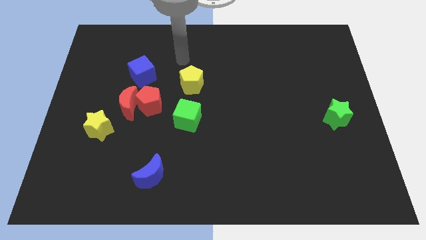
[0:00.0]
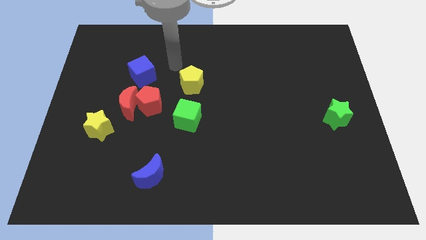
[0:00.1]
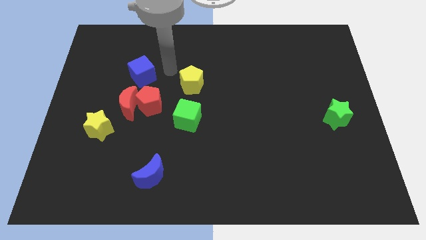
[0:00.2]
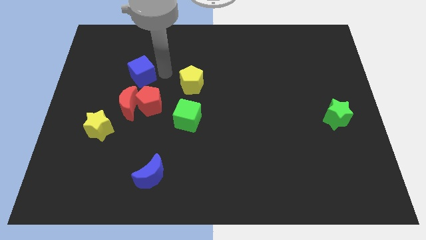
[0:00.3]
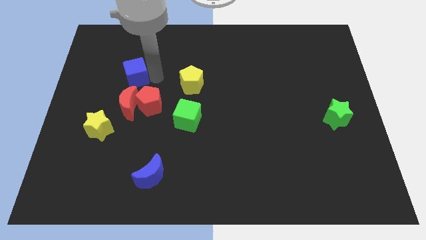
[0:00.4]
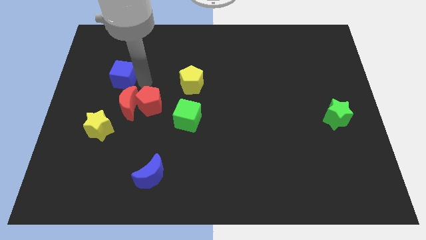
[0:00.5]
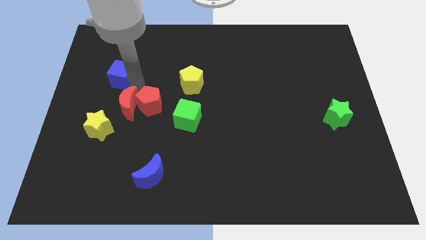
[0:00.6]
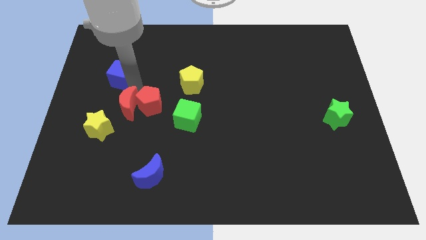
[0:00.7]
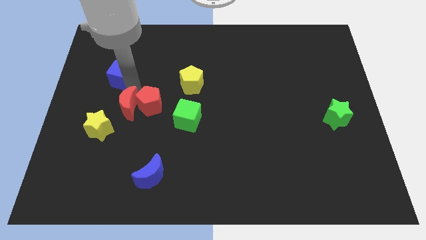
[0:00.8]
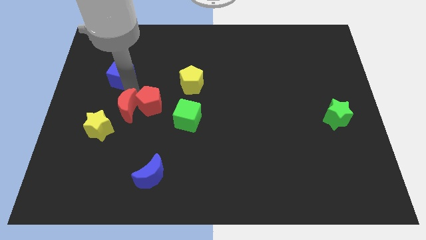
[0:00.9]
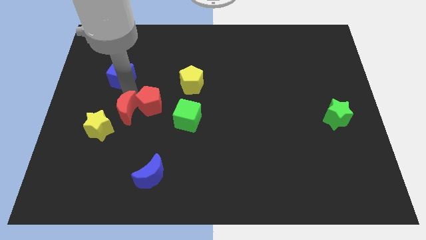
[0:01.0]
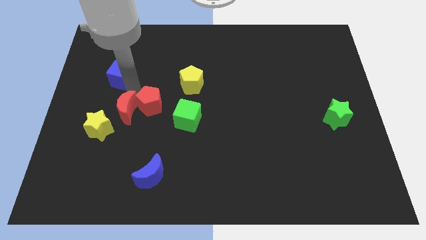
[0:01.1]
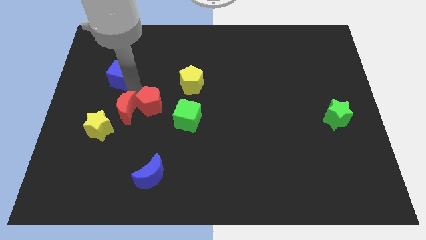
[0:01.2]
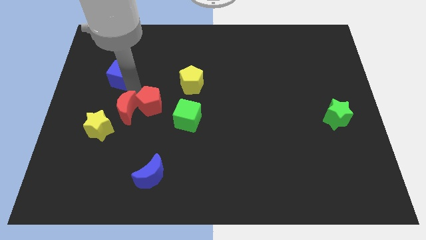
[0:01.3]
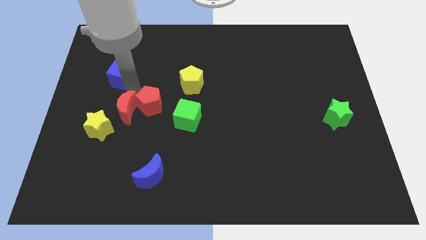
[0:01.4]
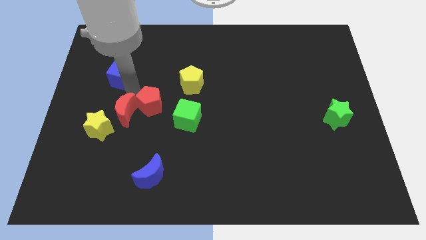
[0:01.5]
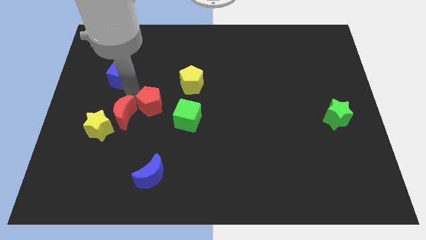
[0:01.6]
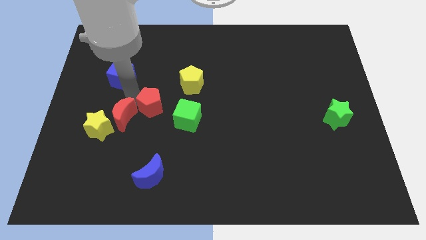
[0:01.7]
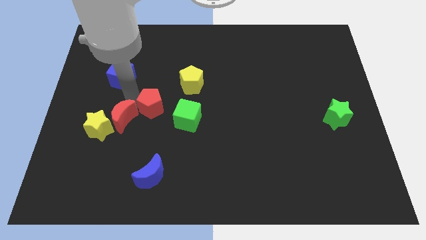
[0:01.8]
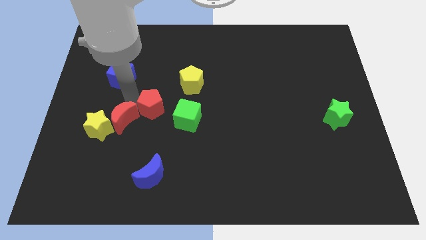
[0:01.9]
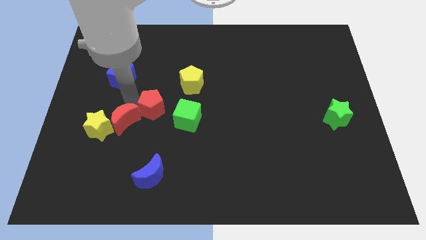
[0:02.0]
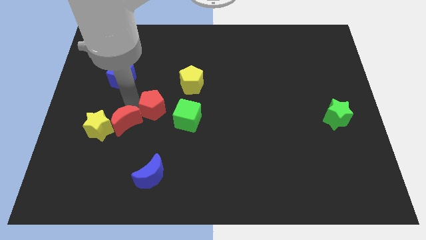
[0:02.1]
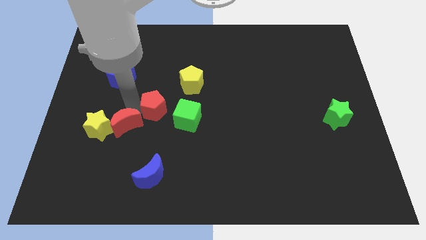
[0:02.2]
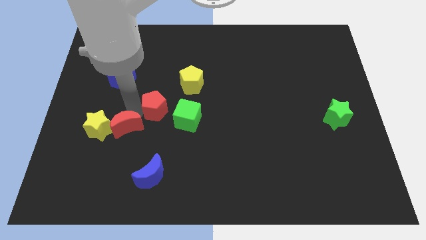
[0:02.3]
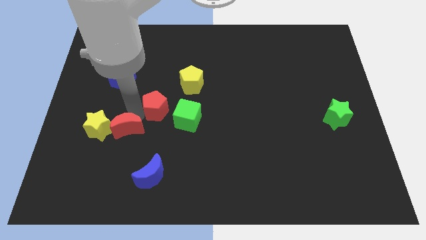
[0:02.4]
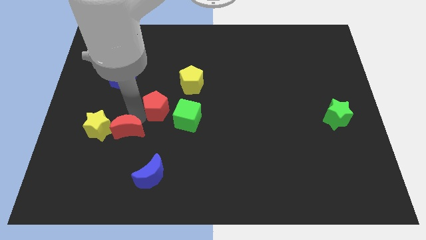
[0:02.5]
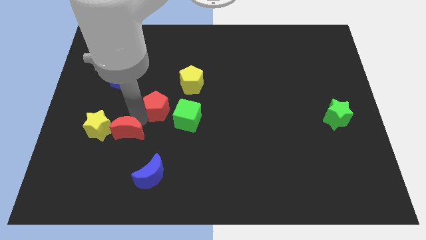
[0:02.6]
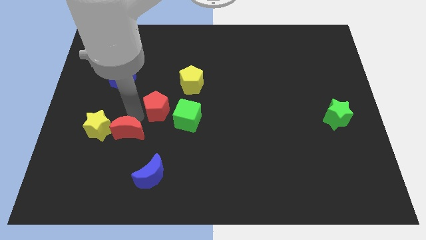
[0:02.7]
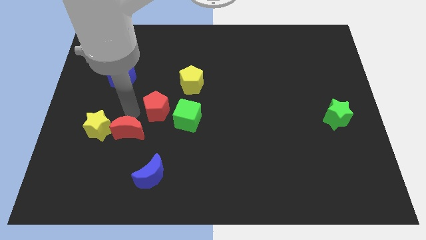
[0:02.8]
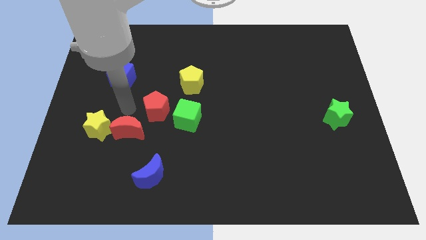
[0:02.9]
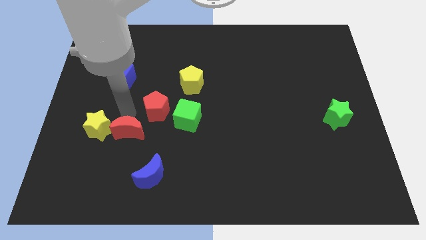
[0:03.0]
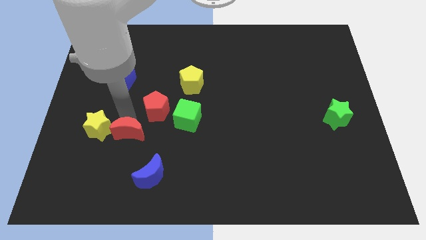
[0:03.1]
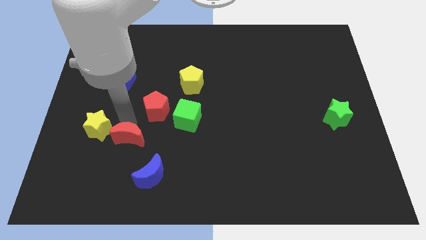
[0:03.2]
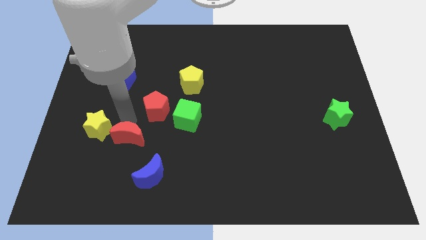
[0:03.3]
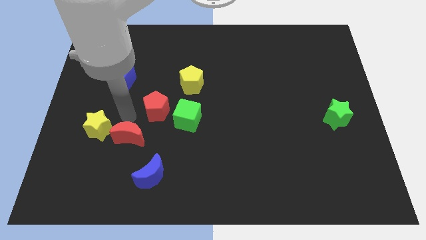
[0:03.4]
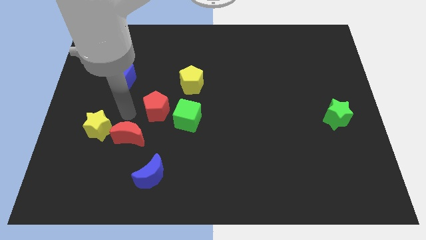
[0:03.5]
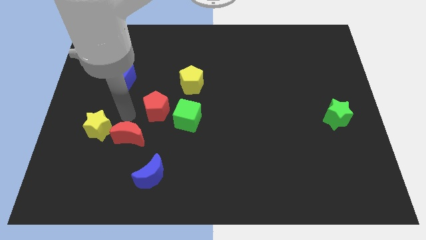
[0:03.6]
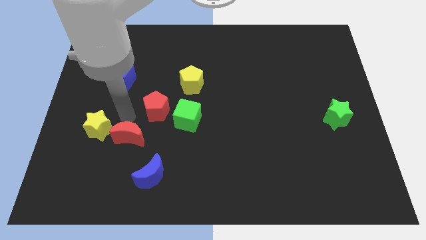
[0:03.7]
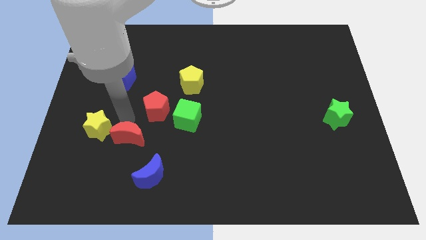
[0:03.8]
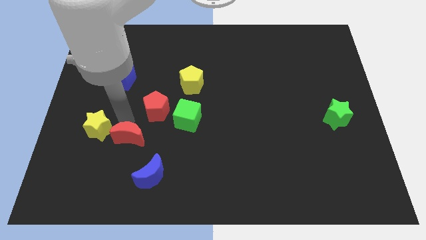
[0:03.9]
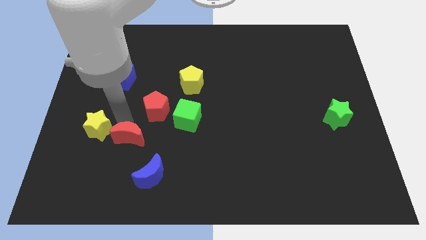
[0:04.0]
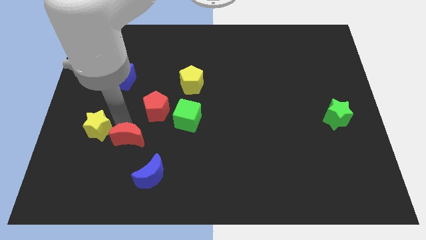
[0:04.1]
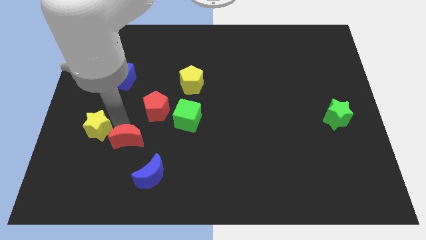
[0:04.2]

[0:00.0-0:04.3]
pull the red moon apart from the clump

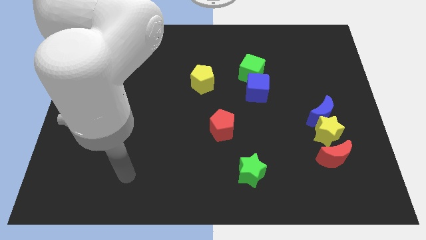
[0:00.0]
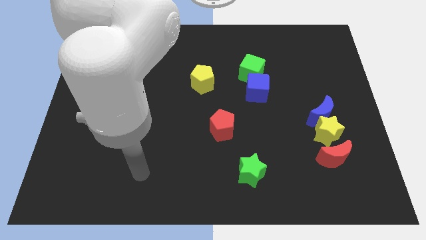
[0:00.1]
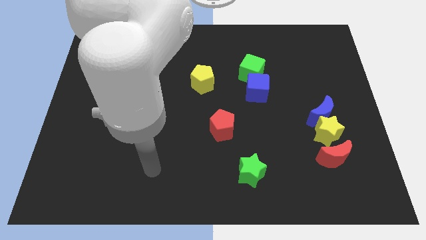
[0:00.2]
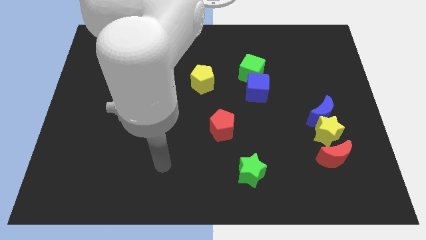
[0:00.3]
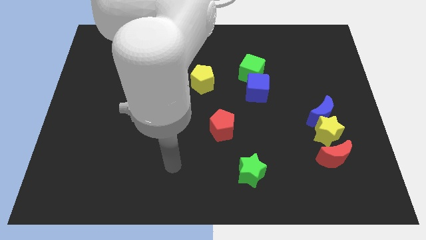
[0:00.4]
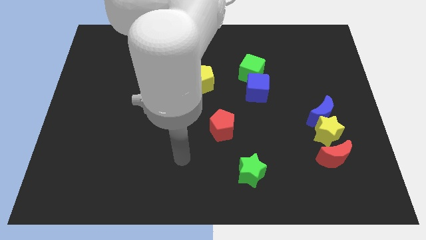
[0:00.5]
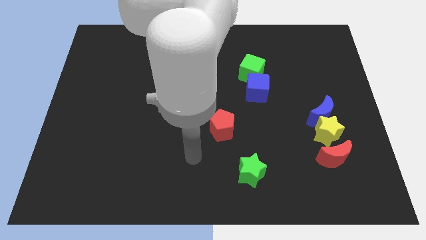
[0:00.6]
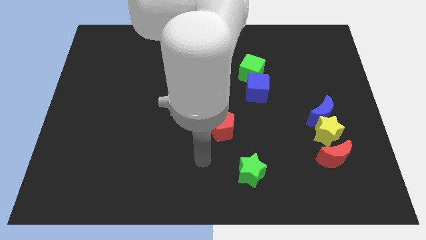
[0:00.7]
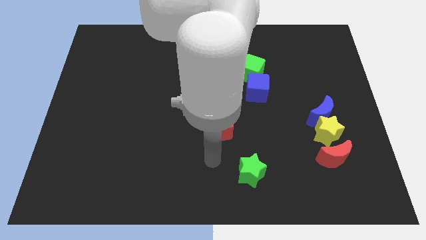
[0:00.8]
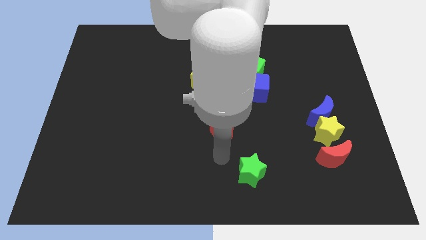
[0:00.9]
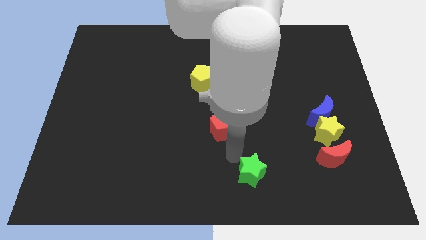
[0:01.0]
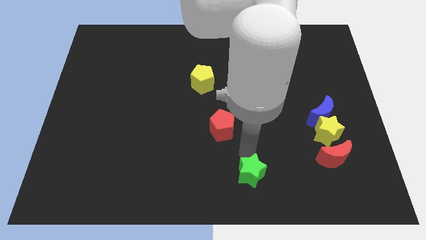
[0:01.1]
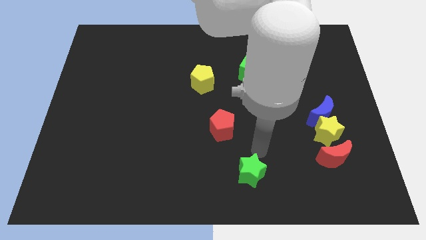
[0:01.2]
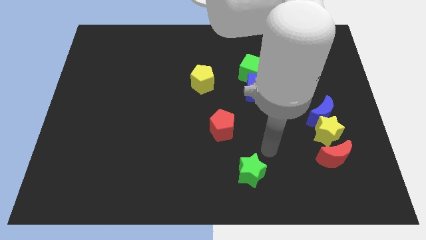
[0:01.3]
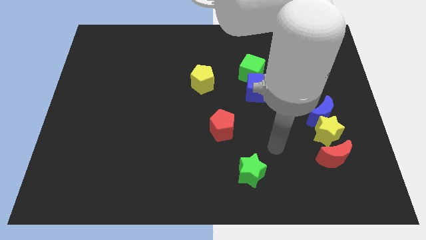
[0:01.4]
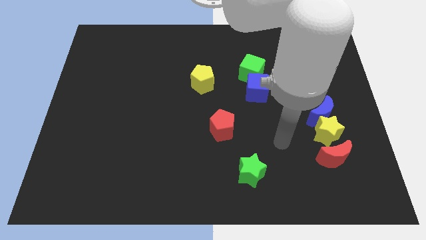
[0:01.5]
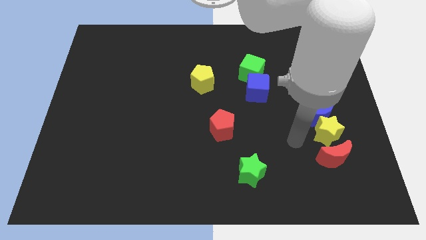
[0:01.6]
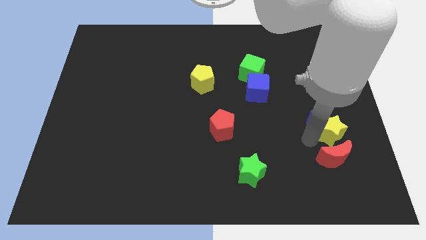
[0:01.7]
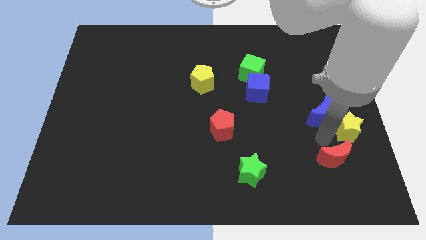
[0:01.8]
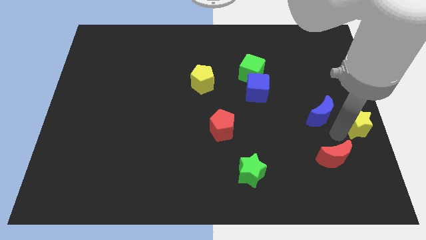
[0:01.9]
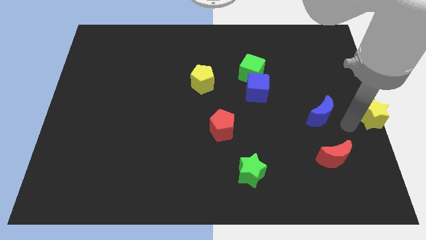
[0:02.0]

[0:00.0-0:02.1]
move the blue moon away from the yellow star

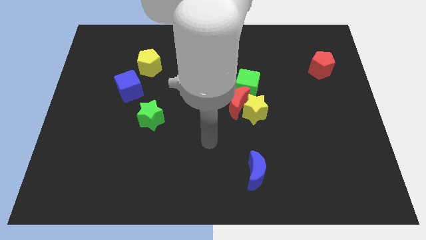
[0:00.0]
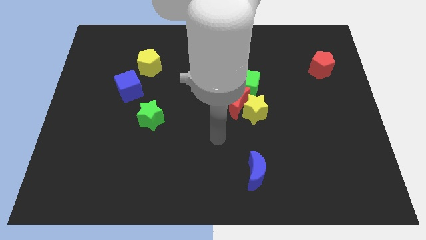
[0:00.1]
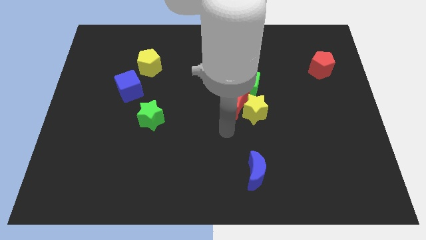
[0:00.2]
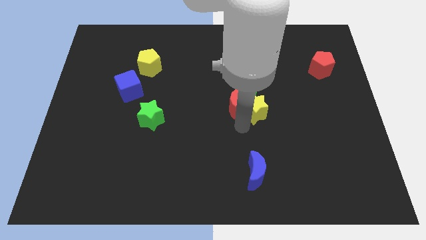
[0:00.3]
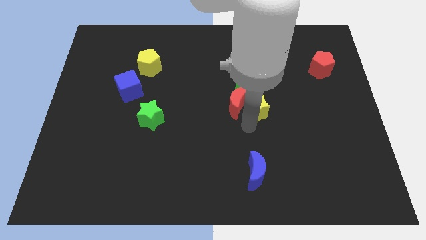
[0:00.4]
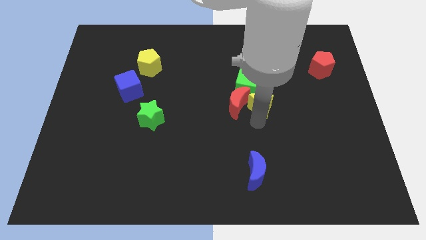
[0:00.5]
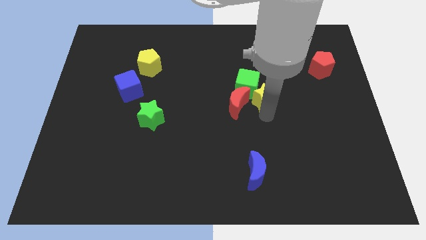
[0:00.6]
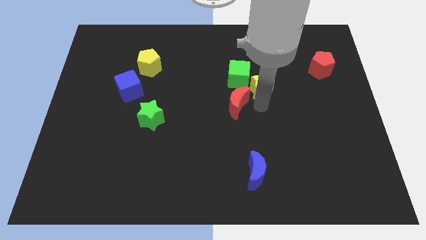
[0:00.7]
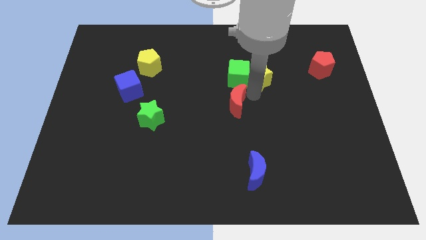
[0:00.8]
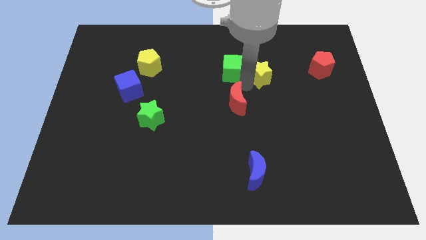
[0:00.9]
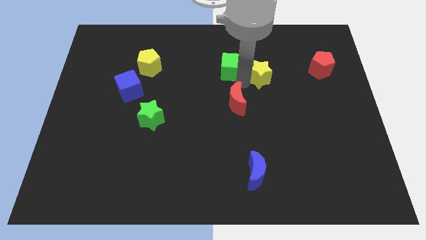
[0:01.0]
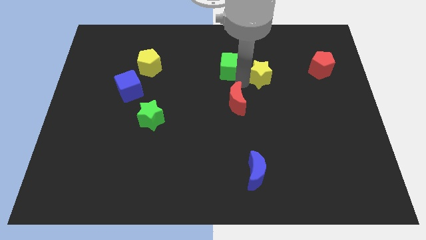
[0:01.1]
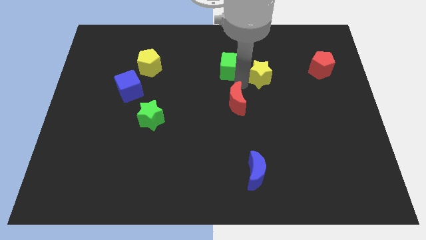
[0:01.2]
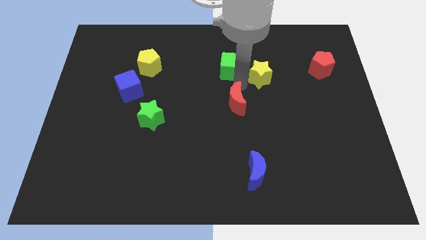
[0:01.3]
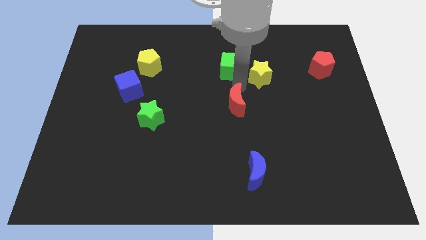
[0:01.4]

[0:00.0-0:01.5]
pull the red moon apart from the yellow star and green cube

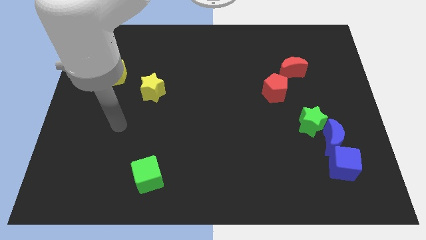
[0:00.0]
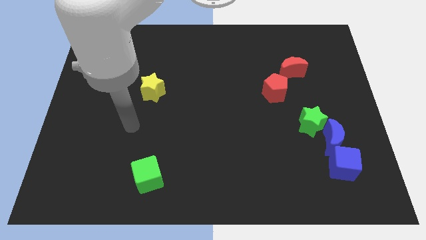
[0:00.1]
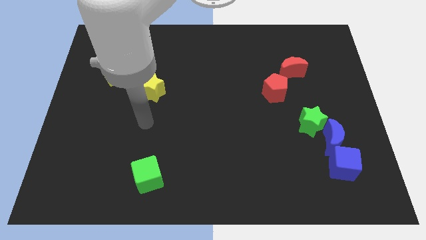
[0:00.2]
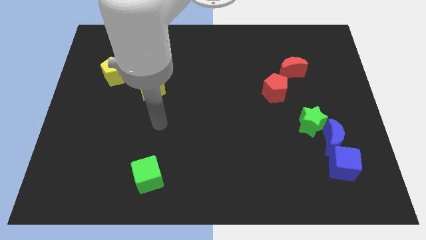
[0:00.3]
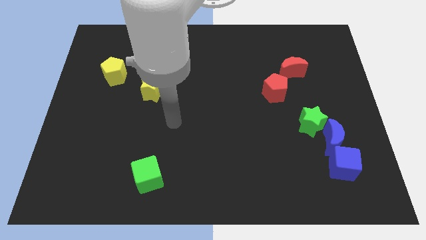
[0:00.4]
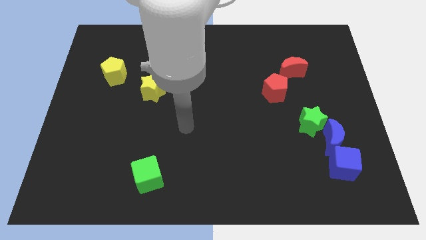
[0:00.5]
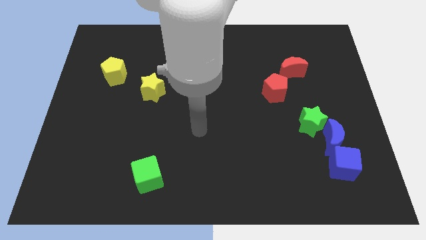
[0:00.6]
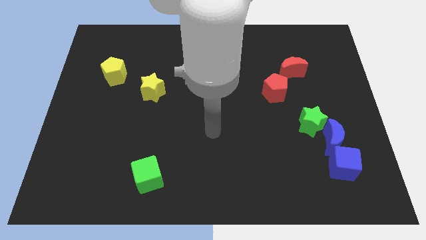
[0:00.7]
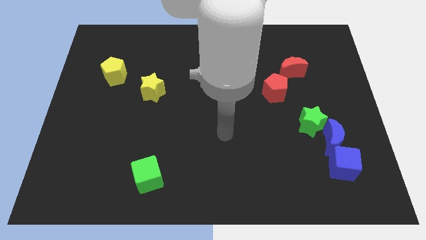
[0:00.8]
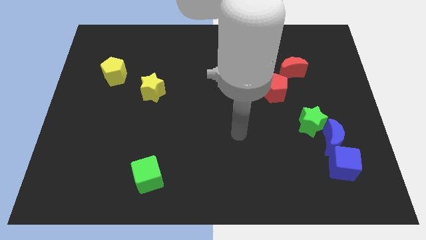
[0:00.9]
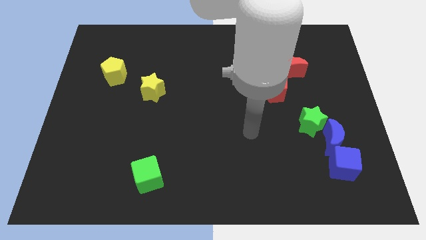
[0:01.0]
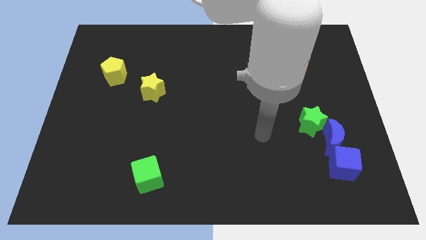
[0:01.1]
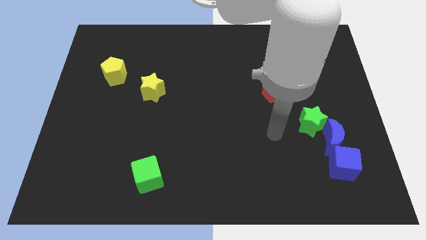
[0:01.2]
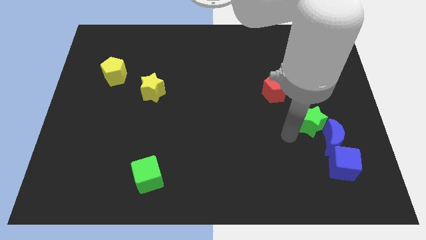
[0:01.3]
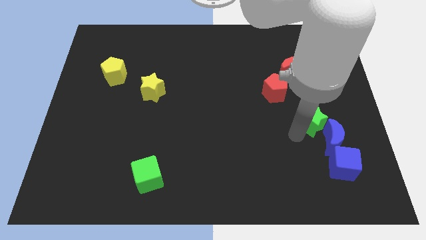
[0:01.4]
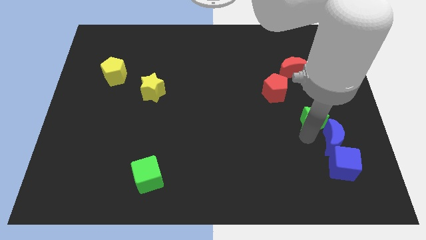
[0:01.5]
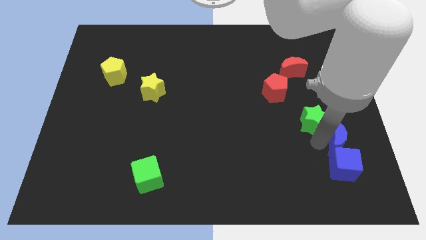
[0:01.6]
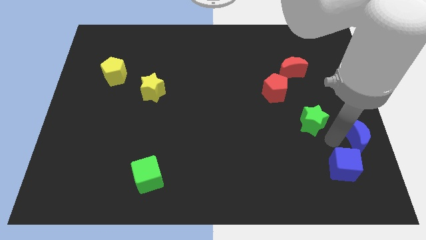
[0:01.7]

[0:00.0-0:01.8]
move the green star away from the blue moon
